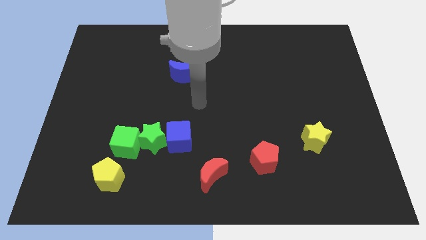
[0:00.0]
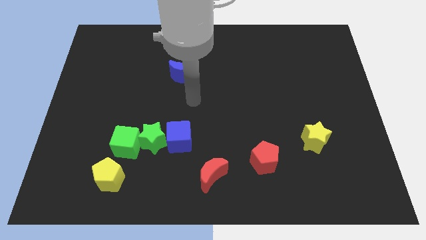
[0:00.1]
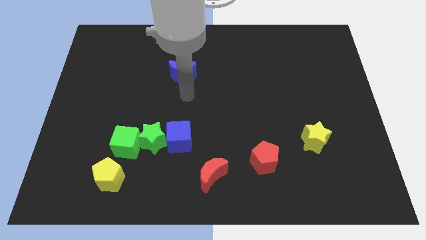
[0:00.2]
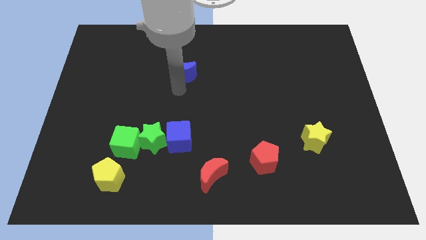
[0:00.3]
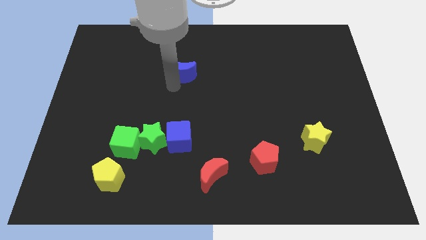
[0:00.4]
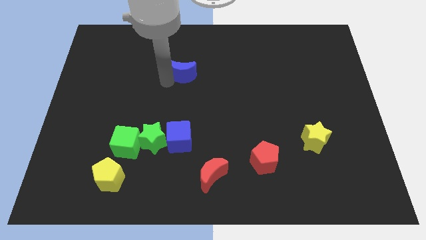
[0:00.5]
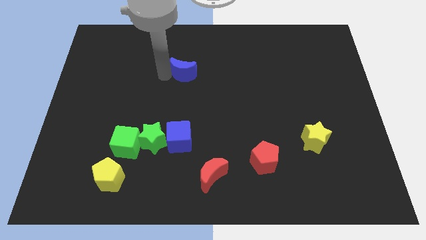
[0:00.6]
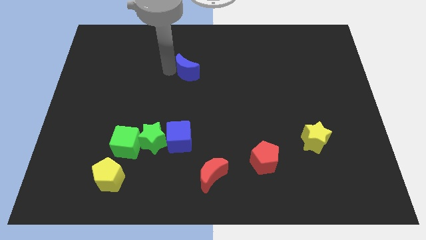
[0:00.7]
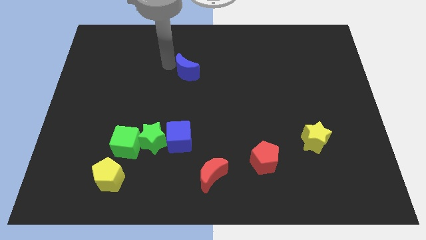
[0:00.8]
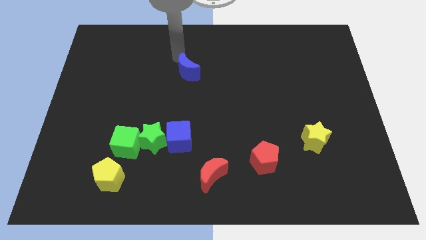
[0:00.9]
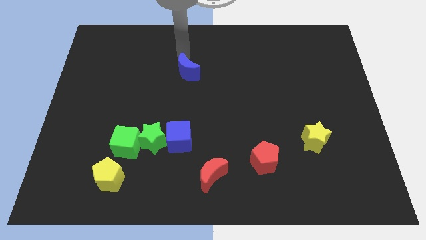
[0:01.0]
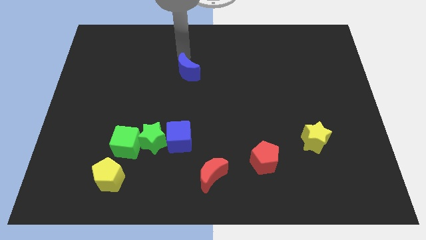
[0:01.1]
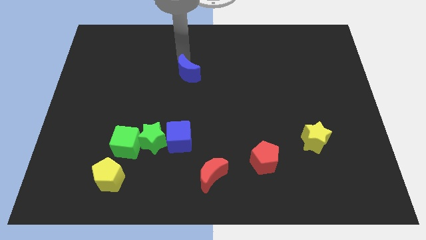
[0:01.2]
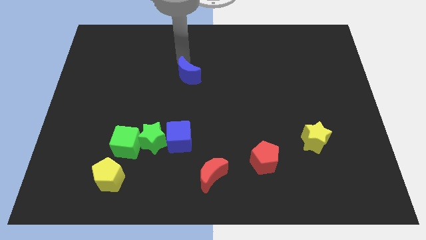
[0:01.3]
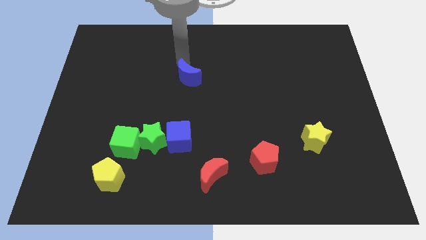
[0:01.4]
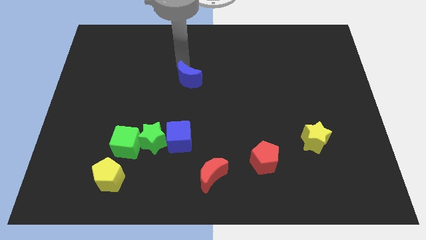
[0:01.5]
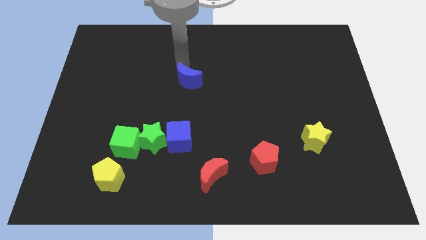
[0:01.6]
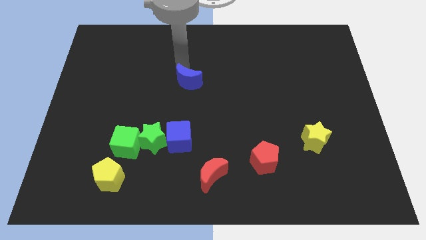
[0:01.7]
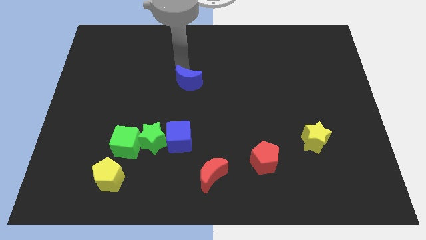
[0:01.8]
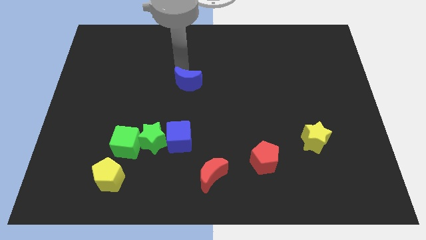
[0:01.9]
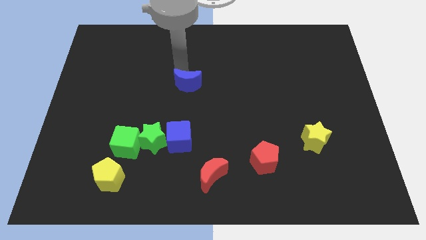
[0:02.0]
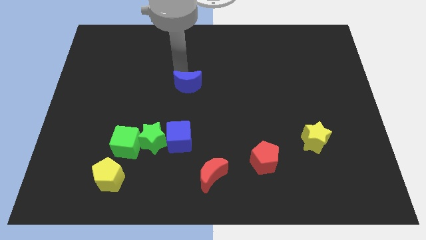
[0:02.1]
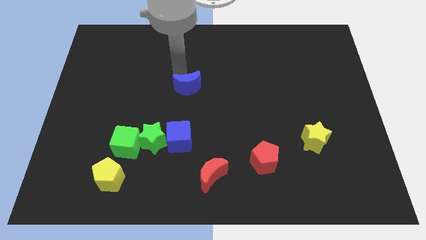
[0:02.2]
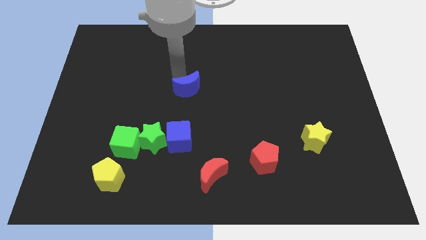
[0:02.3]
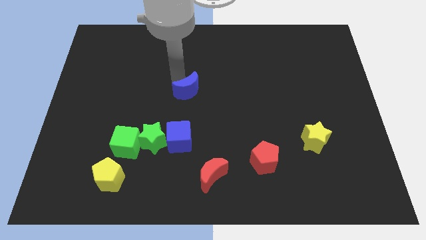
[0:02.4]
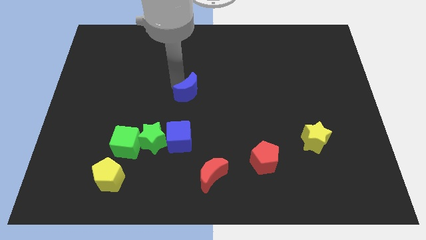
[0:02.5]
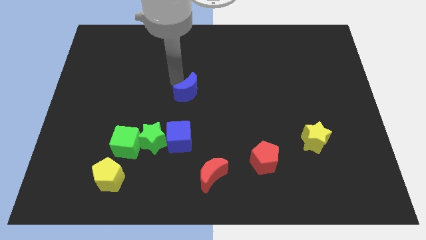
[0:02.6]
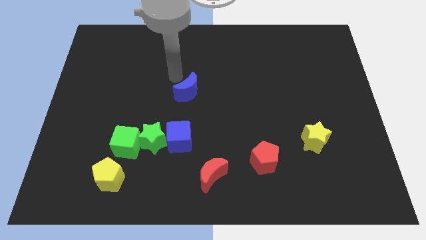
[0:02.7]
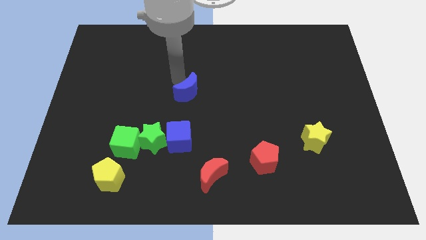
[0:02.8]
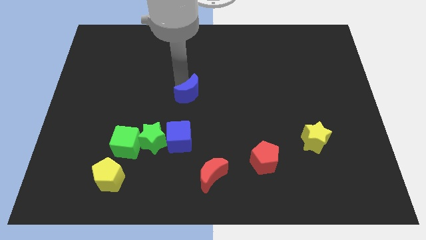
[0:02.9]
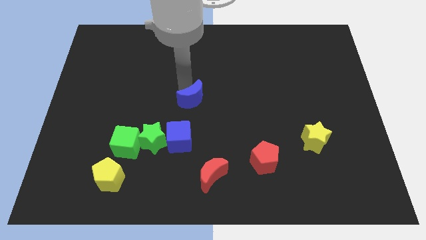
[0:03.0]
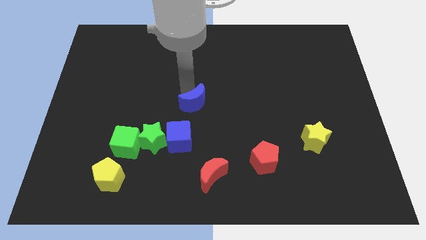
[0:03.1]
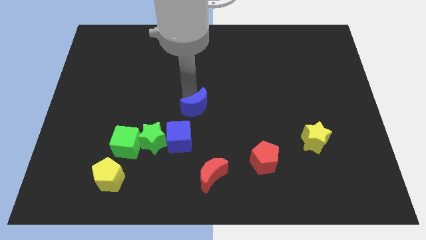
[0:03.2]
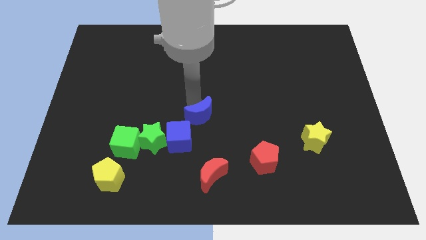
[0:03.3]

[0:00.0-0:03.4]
push the blue moon above the red moon

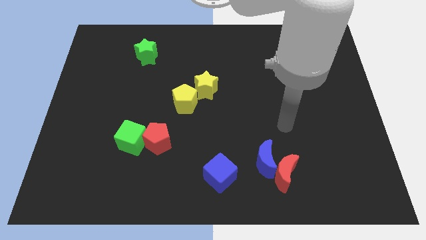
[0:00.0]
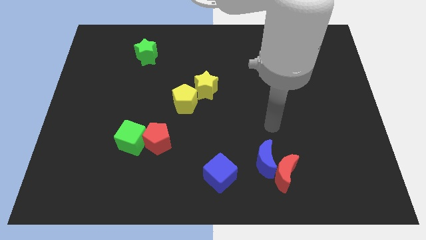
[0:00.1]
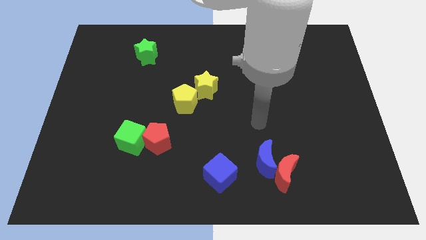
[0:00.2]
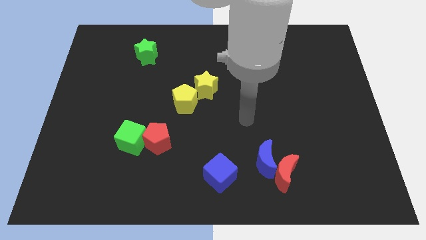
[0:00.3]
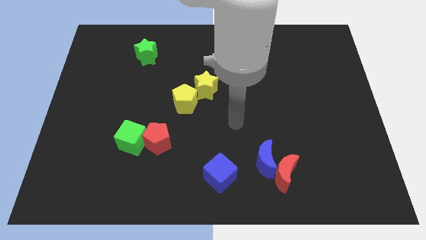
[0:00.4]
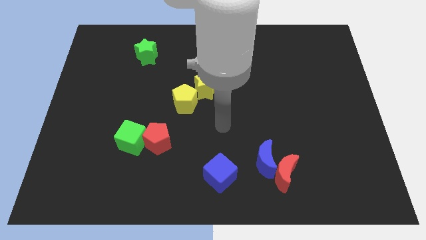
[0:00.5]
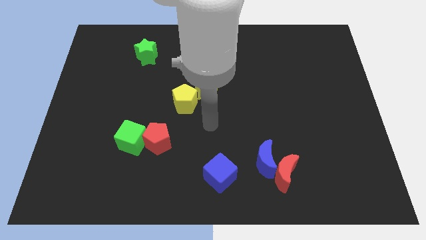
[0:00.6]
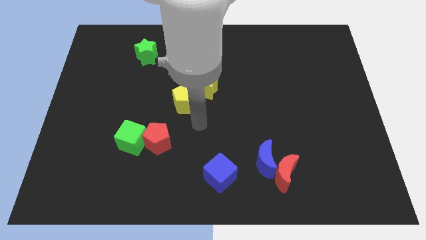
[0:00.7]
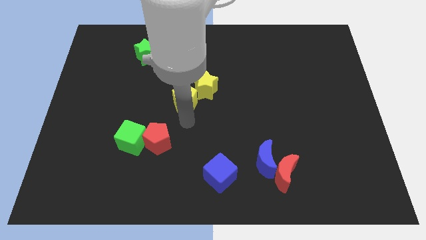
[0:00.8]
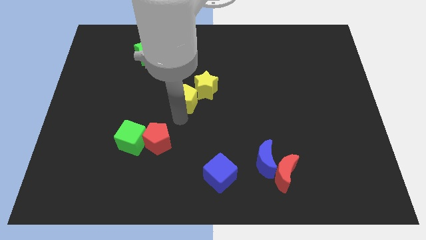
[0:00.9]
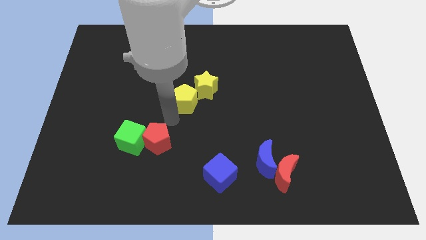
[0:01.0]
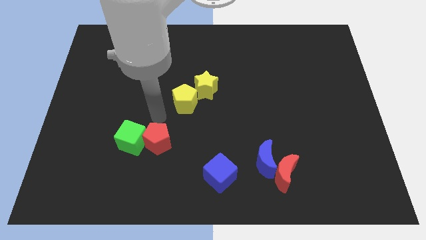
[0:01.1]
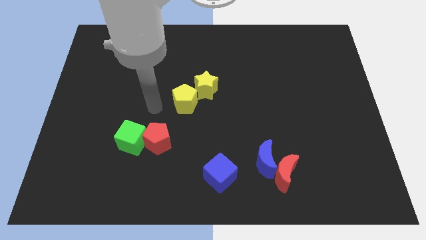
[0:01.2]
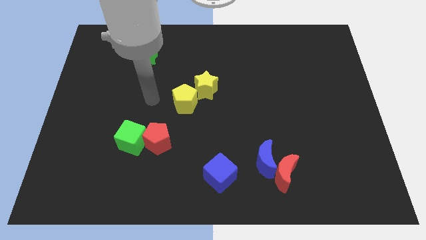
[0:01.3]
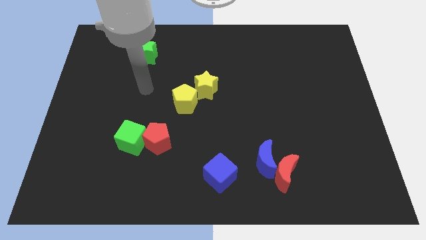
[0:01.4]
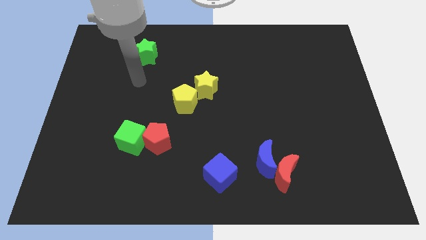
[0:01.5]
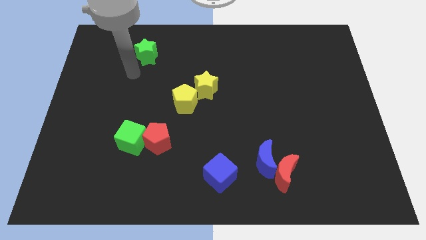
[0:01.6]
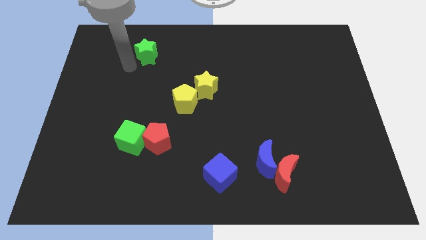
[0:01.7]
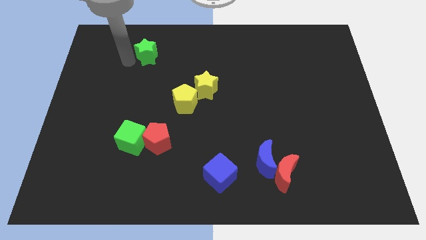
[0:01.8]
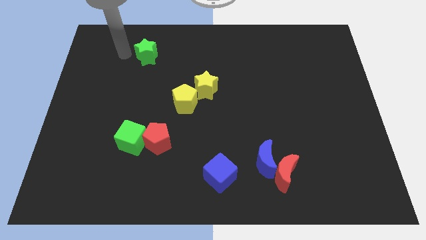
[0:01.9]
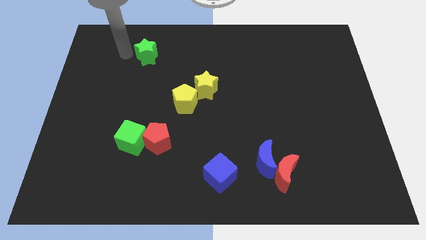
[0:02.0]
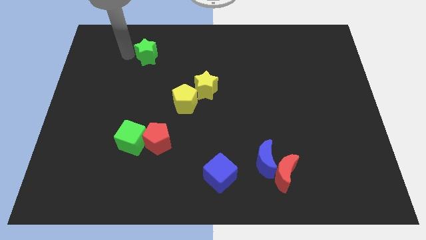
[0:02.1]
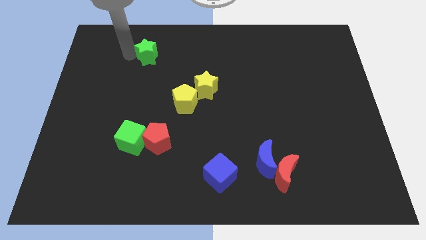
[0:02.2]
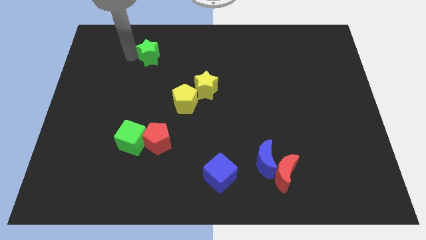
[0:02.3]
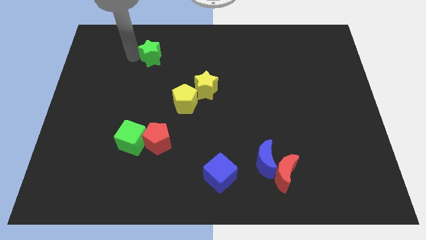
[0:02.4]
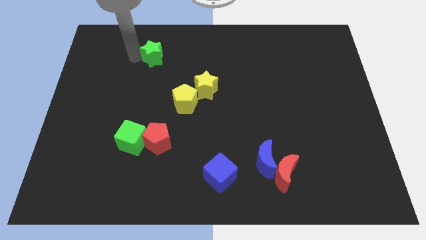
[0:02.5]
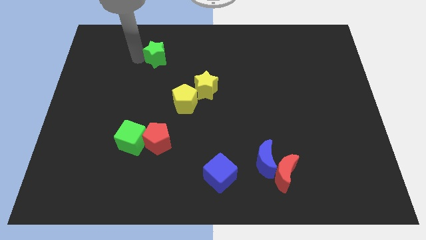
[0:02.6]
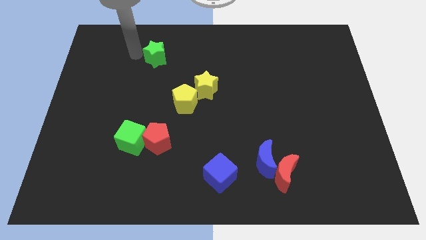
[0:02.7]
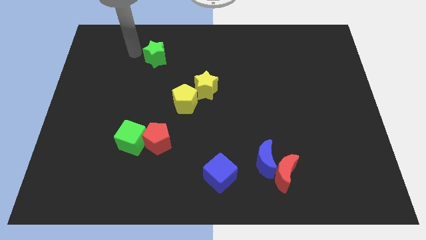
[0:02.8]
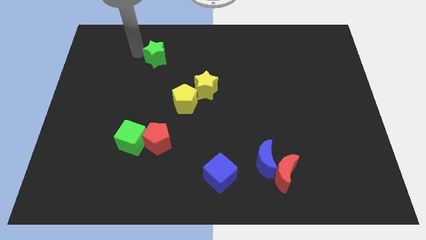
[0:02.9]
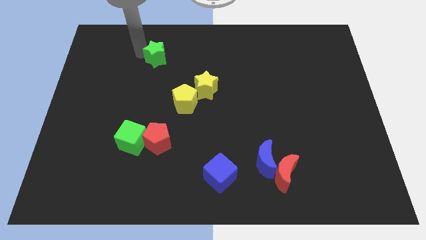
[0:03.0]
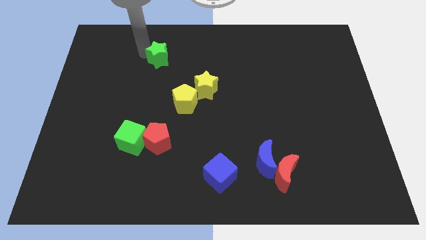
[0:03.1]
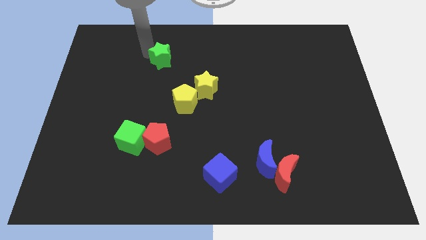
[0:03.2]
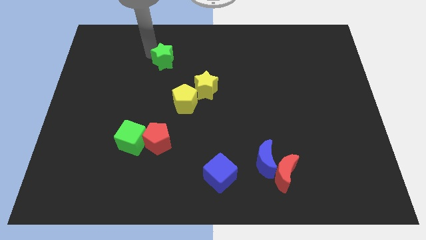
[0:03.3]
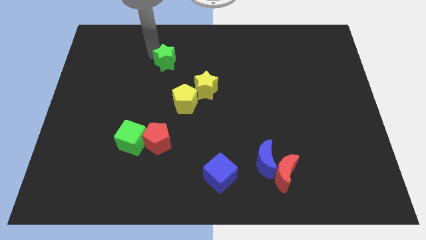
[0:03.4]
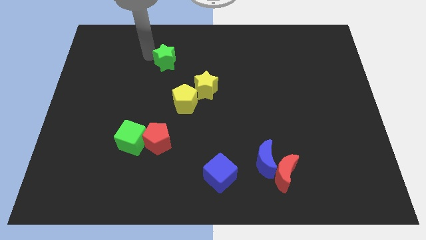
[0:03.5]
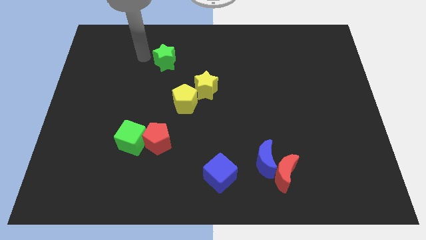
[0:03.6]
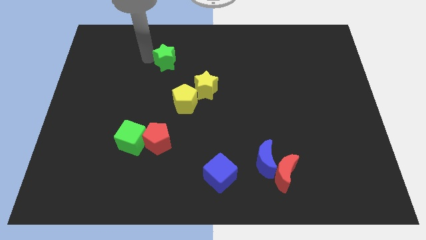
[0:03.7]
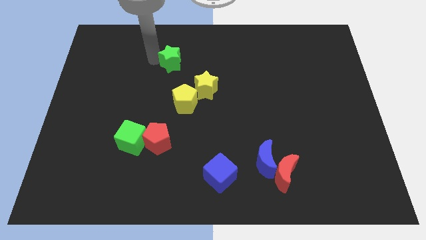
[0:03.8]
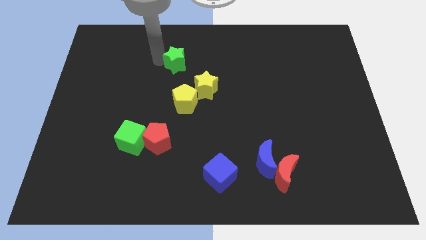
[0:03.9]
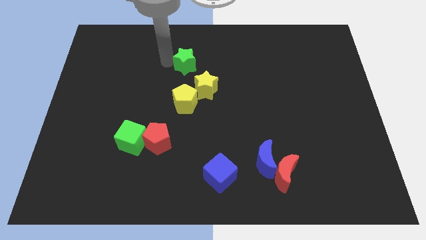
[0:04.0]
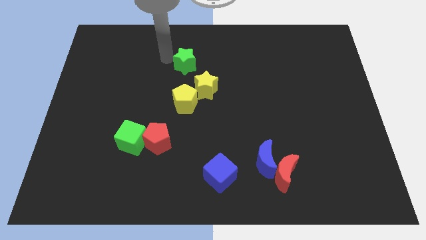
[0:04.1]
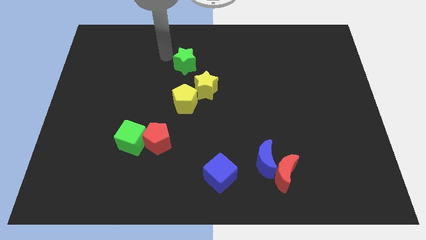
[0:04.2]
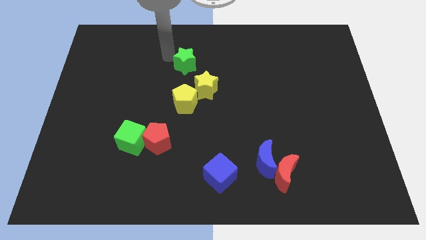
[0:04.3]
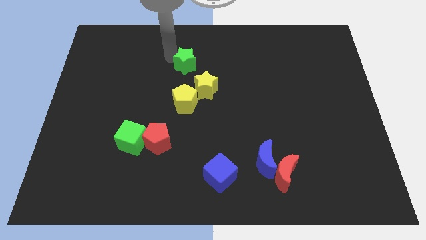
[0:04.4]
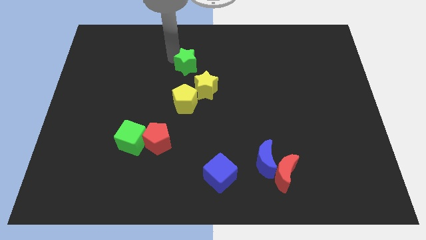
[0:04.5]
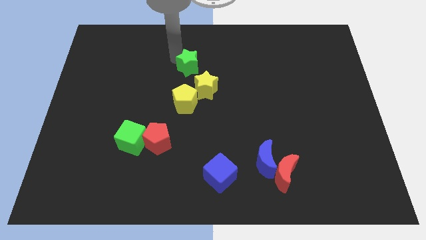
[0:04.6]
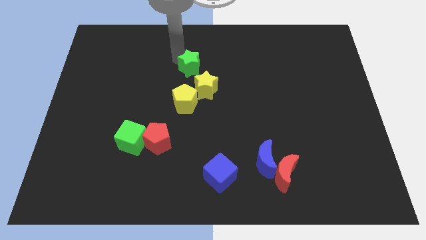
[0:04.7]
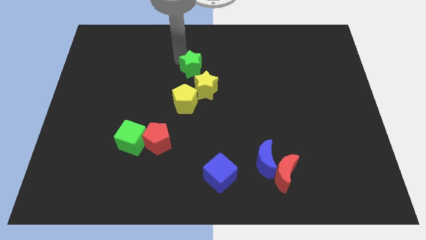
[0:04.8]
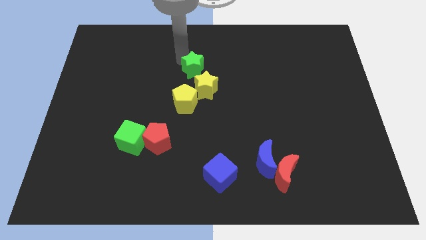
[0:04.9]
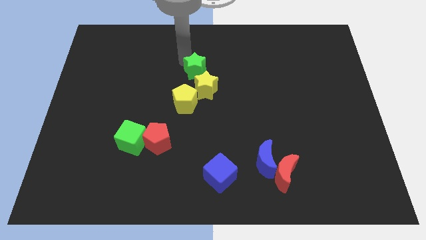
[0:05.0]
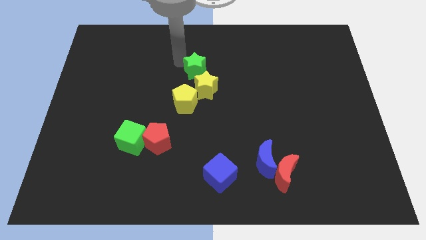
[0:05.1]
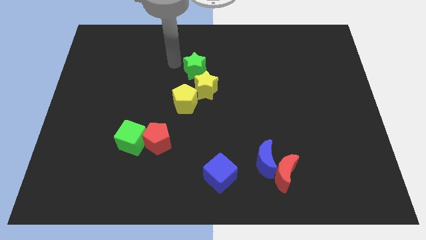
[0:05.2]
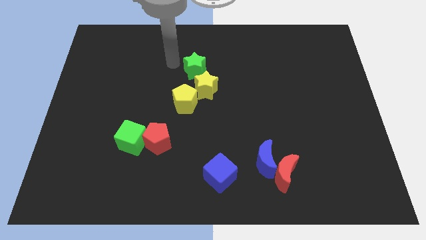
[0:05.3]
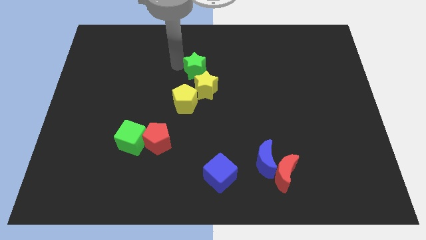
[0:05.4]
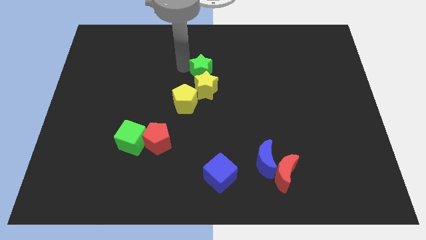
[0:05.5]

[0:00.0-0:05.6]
push the green star to the top right of the yellow pentagon
